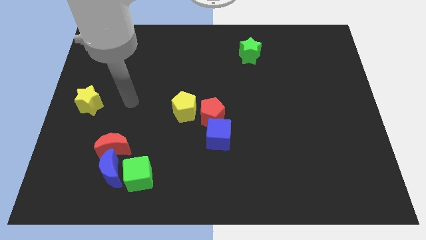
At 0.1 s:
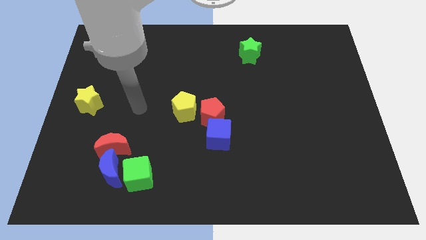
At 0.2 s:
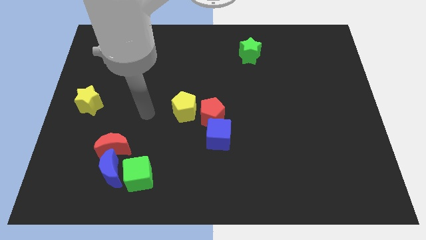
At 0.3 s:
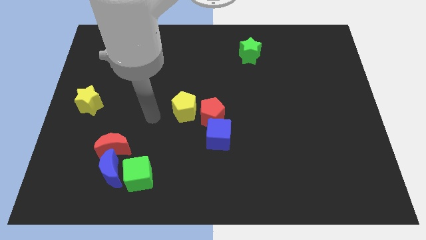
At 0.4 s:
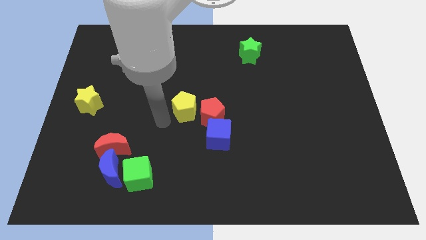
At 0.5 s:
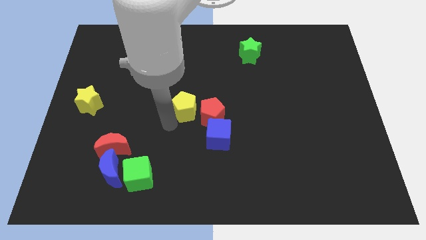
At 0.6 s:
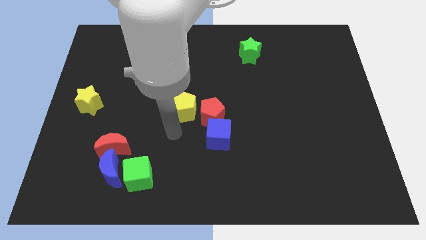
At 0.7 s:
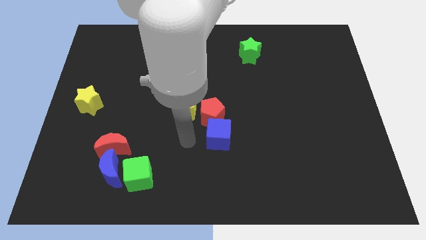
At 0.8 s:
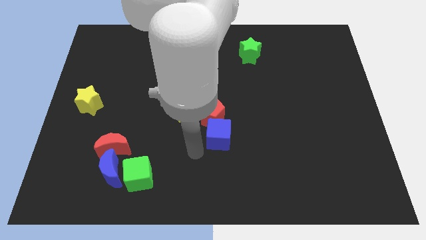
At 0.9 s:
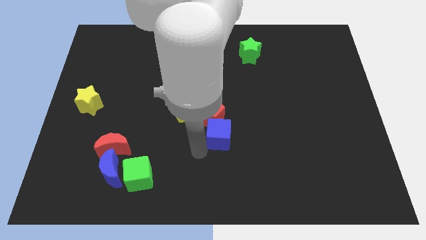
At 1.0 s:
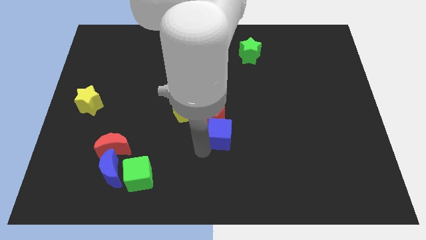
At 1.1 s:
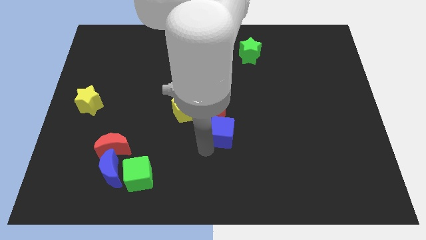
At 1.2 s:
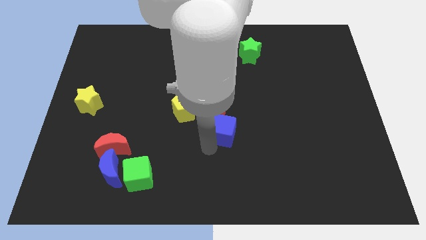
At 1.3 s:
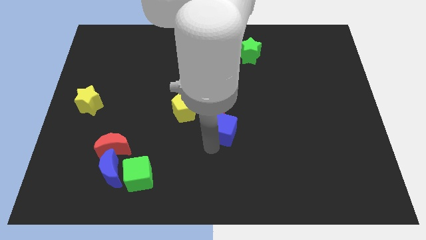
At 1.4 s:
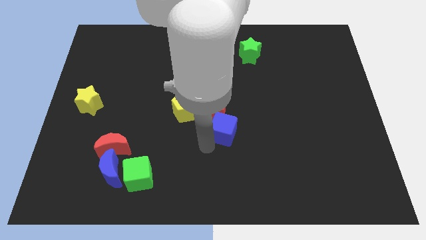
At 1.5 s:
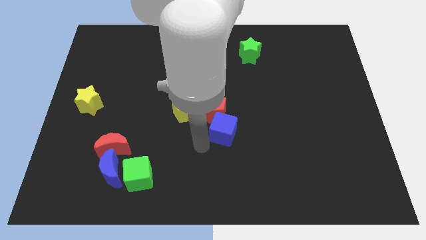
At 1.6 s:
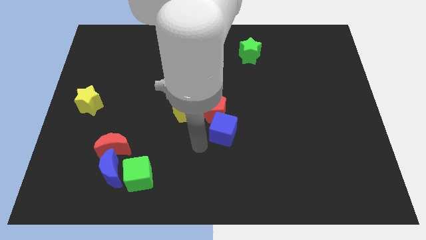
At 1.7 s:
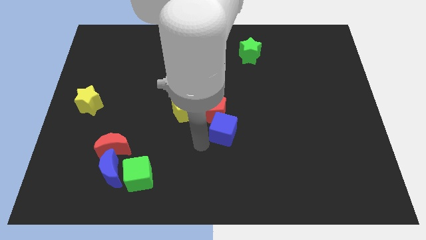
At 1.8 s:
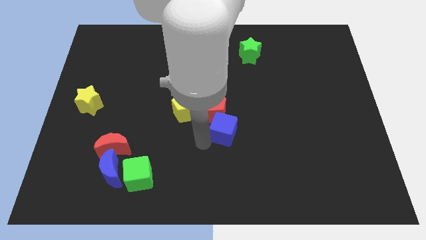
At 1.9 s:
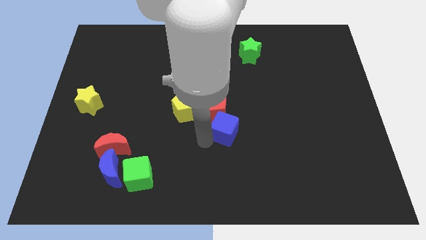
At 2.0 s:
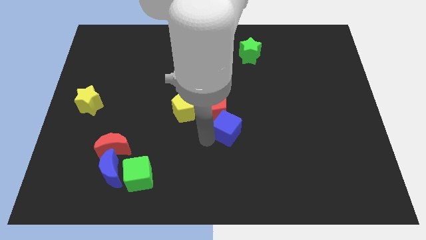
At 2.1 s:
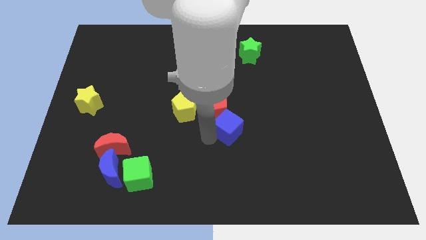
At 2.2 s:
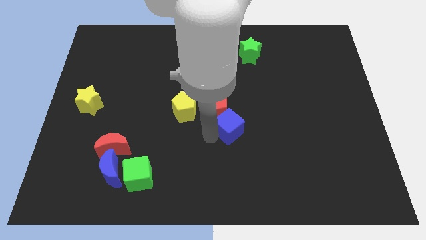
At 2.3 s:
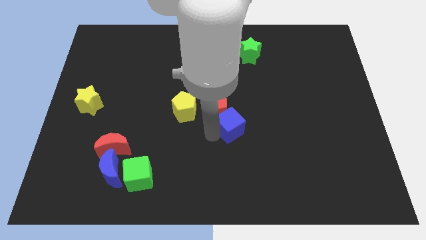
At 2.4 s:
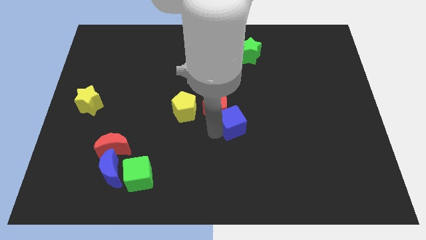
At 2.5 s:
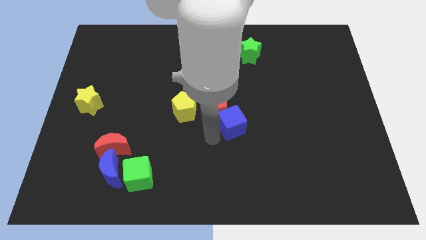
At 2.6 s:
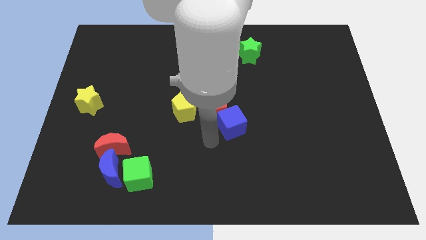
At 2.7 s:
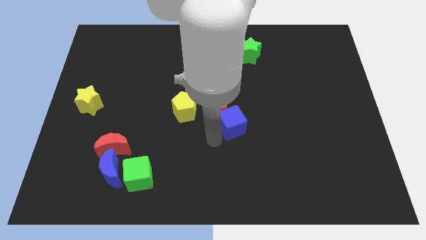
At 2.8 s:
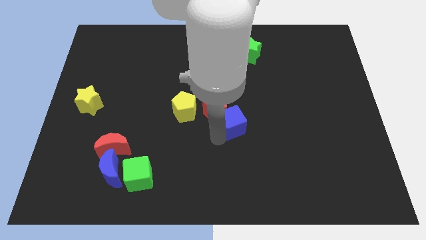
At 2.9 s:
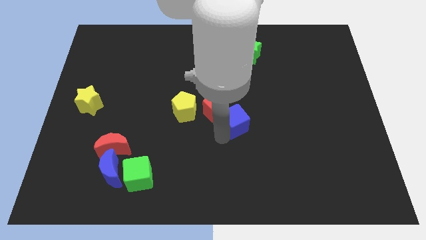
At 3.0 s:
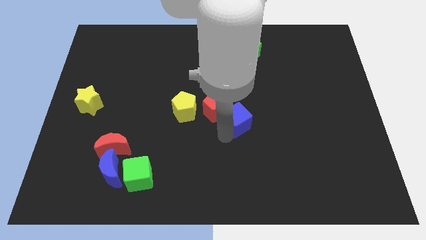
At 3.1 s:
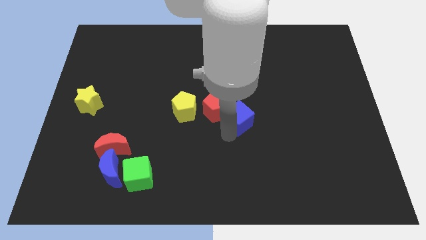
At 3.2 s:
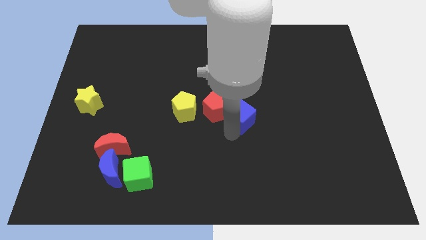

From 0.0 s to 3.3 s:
push the blue cube diagonally upwards and right slightly

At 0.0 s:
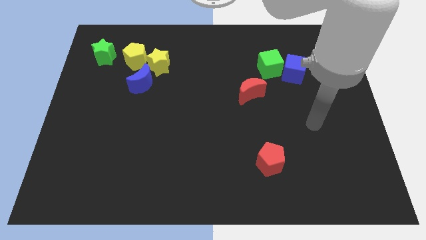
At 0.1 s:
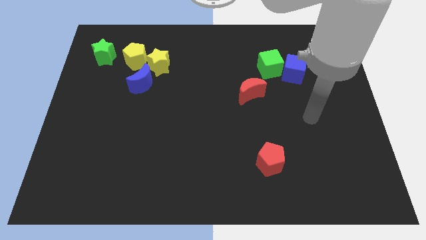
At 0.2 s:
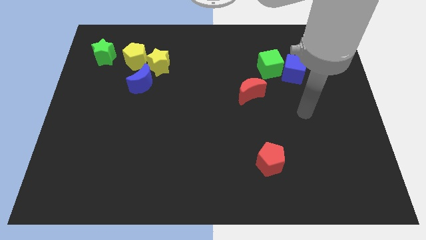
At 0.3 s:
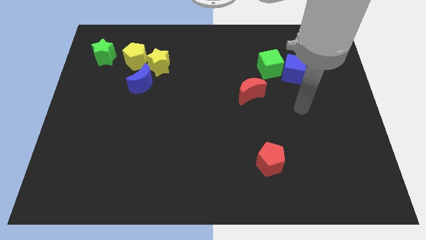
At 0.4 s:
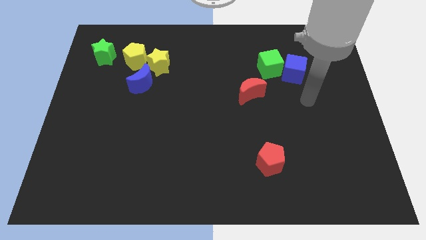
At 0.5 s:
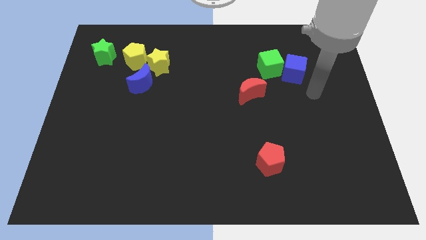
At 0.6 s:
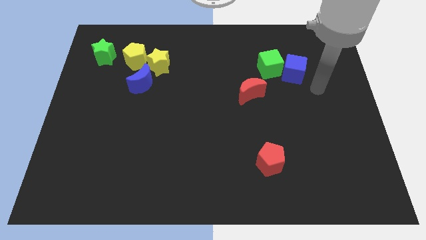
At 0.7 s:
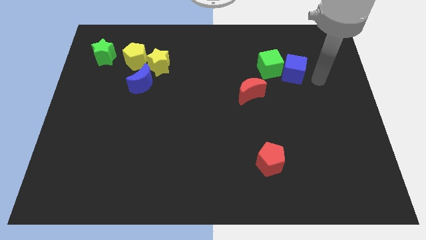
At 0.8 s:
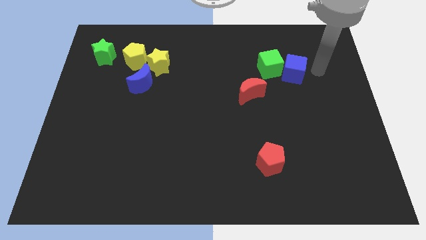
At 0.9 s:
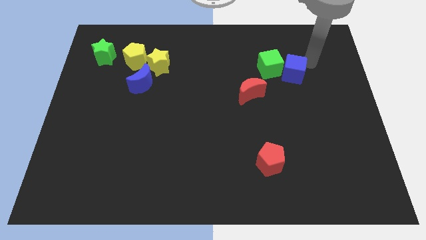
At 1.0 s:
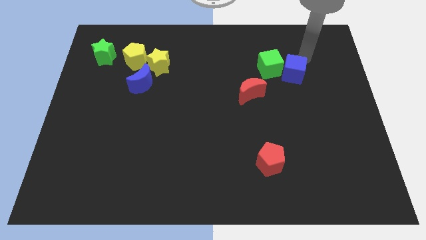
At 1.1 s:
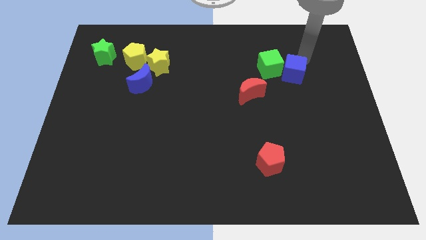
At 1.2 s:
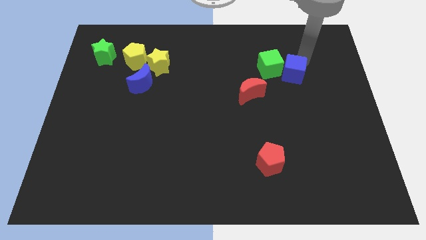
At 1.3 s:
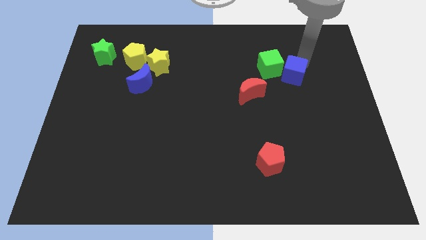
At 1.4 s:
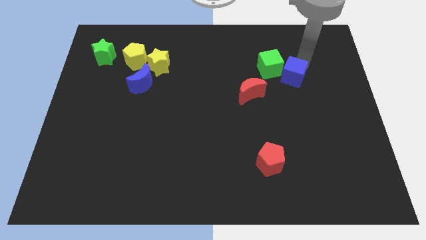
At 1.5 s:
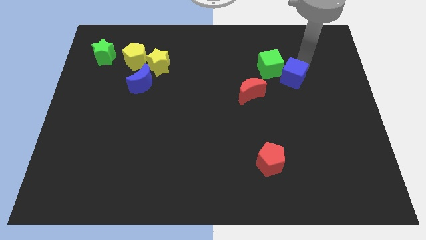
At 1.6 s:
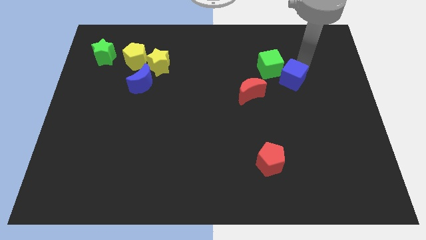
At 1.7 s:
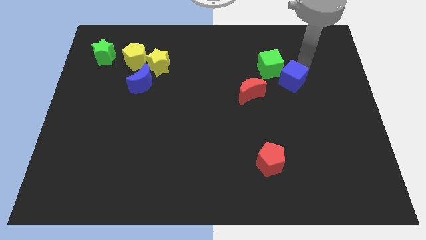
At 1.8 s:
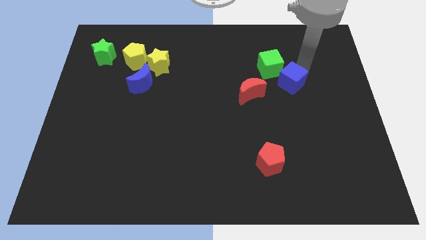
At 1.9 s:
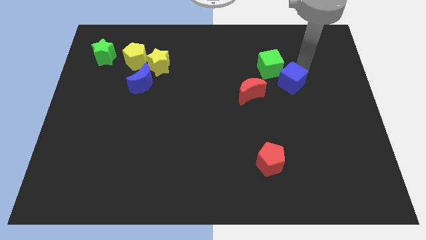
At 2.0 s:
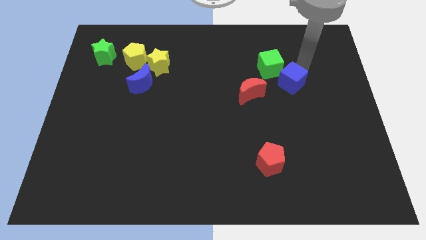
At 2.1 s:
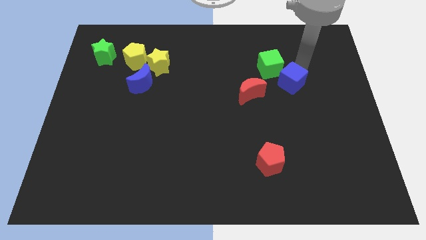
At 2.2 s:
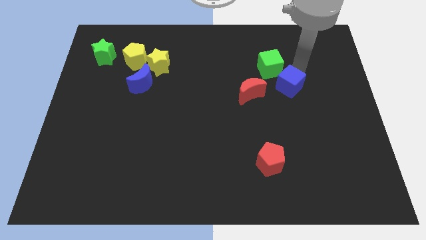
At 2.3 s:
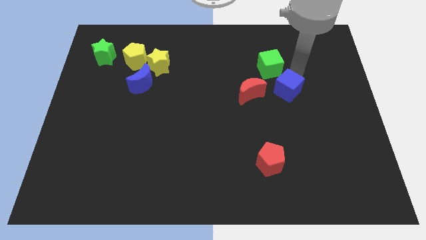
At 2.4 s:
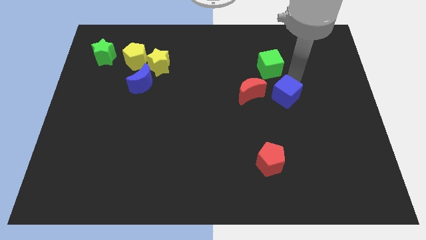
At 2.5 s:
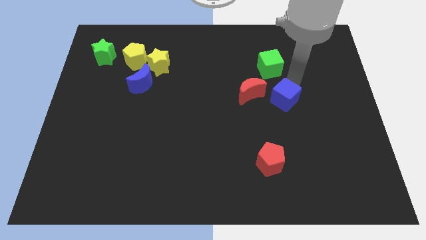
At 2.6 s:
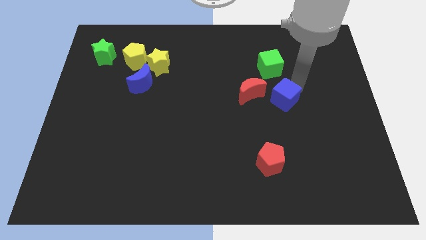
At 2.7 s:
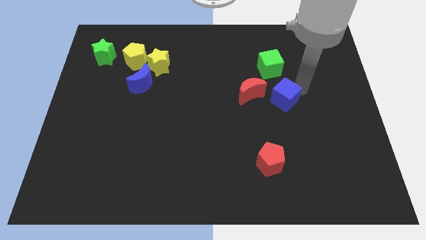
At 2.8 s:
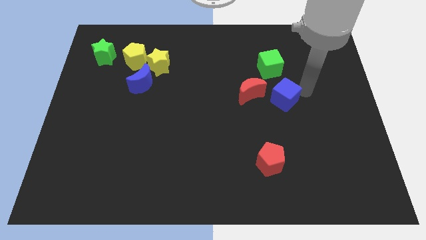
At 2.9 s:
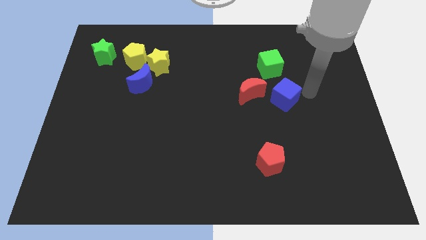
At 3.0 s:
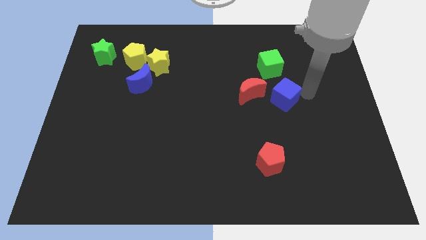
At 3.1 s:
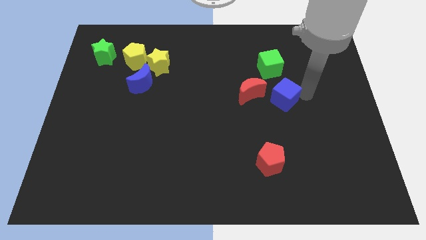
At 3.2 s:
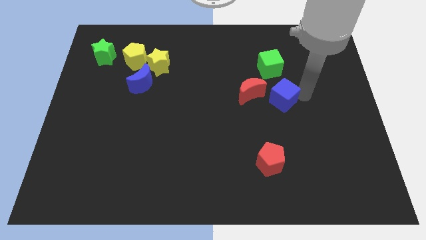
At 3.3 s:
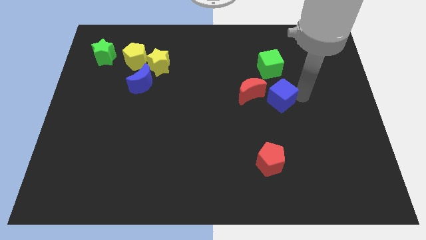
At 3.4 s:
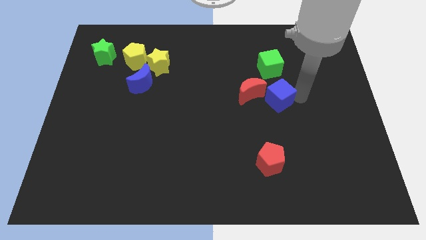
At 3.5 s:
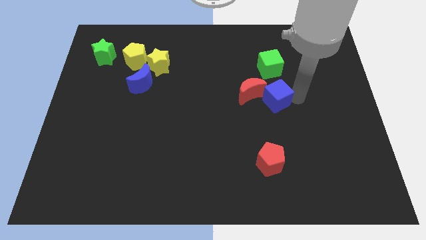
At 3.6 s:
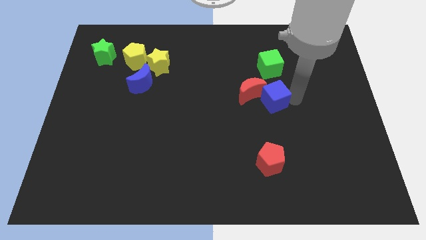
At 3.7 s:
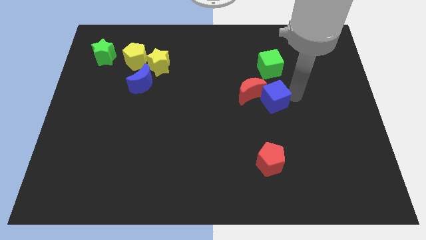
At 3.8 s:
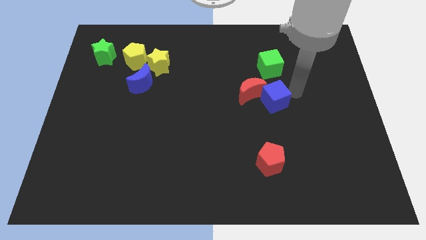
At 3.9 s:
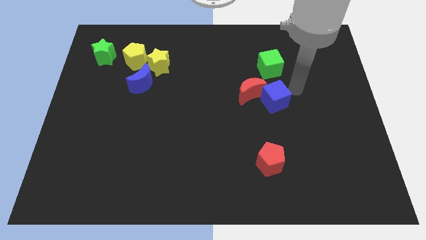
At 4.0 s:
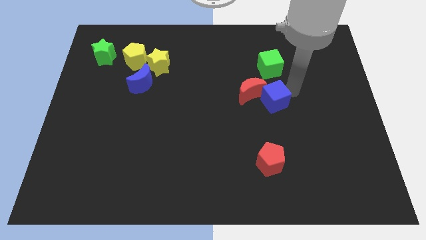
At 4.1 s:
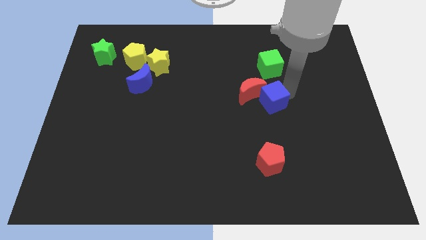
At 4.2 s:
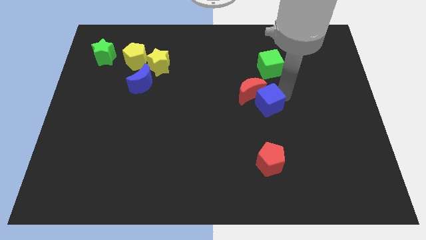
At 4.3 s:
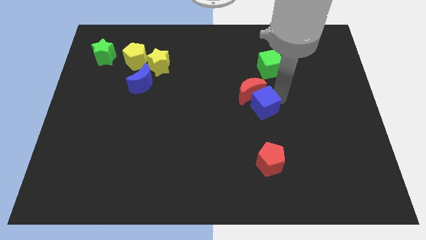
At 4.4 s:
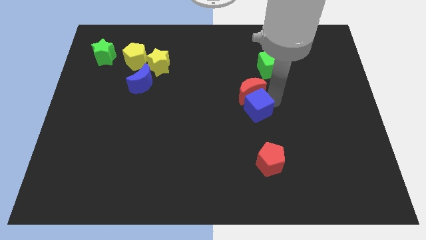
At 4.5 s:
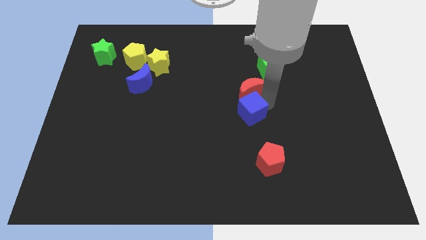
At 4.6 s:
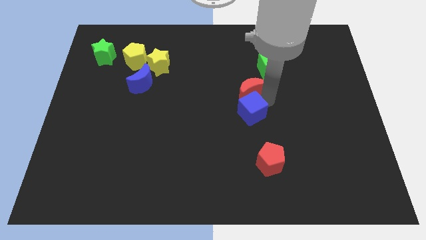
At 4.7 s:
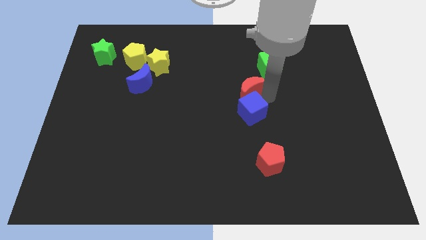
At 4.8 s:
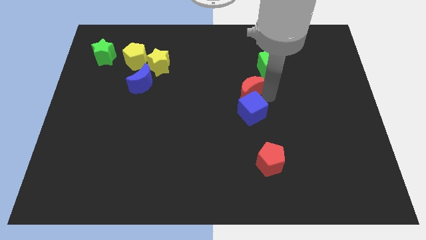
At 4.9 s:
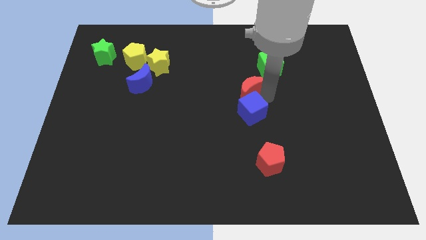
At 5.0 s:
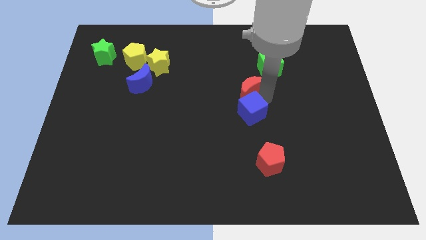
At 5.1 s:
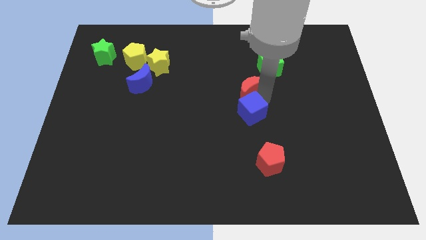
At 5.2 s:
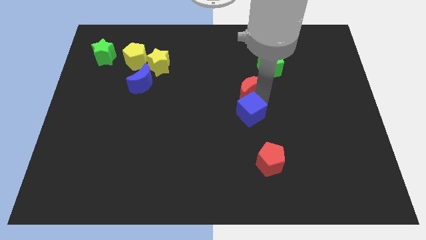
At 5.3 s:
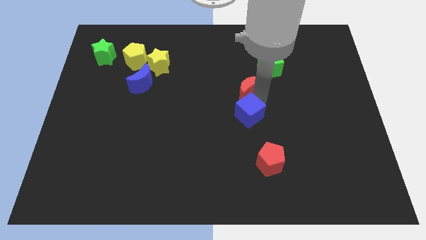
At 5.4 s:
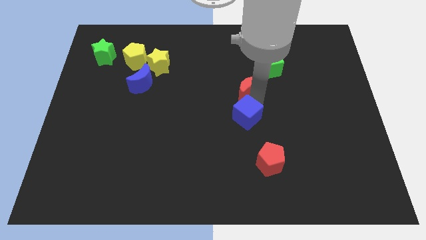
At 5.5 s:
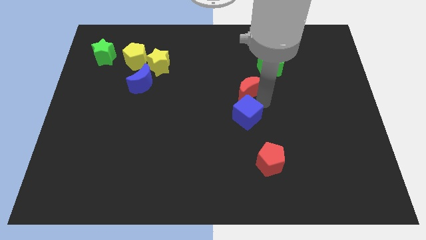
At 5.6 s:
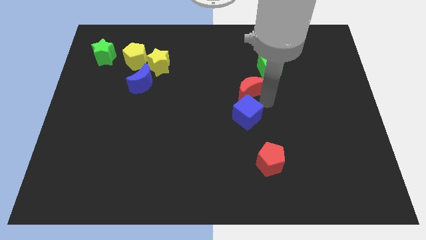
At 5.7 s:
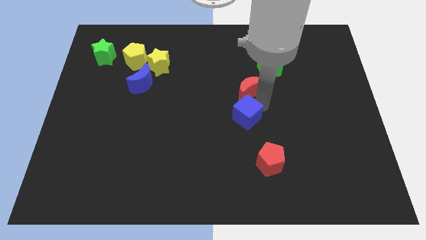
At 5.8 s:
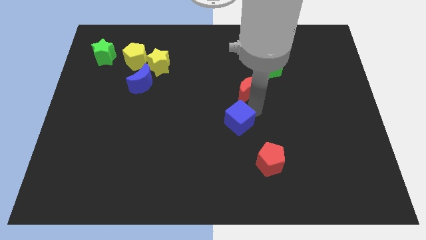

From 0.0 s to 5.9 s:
move the blue cube down and then left
